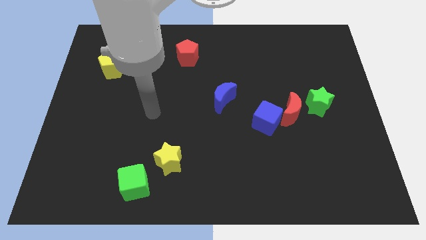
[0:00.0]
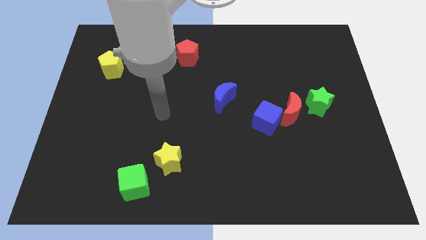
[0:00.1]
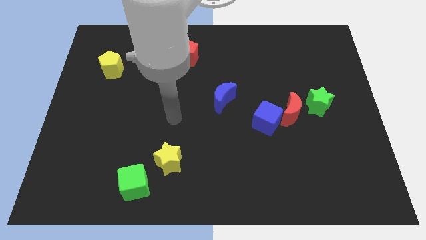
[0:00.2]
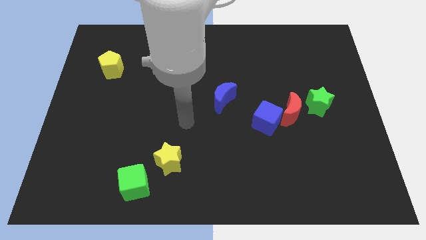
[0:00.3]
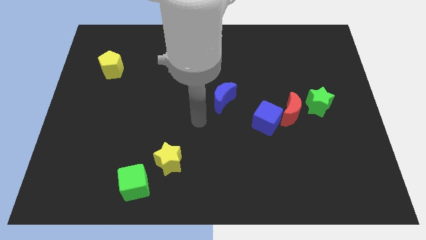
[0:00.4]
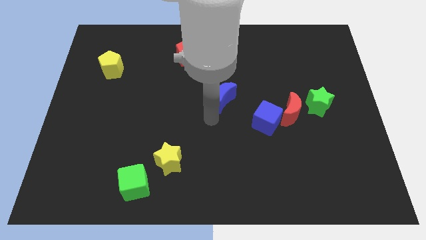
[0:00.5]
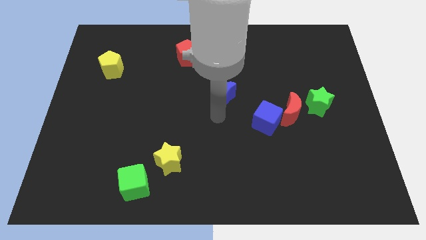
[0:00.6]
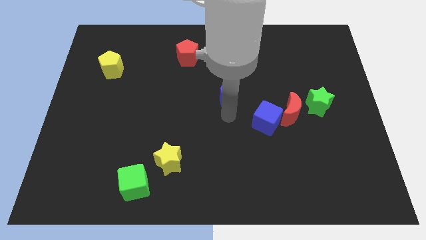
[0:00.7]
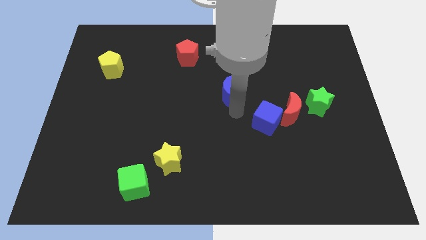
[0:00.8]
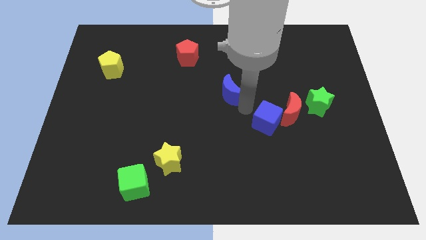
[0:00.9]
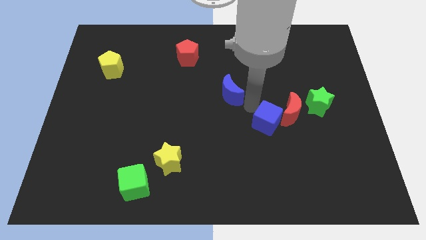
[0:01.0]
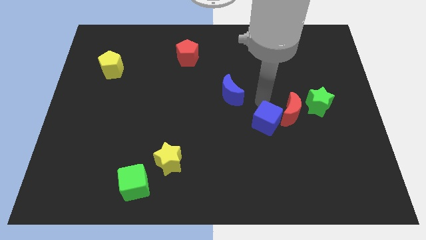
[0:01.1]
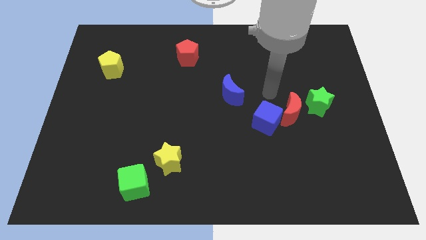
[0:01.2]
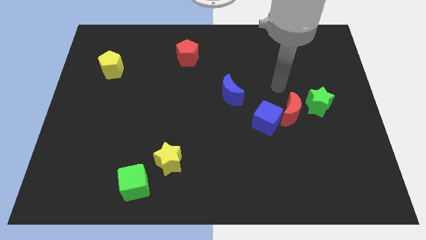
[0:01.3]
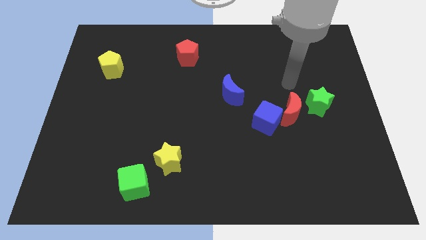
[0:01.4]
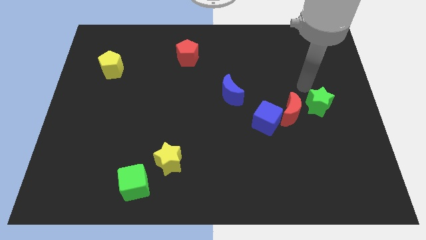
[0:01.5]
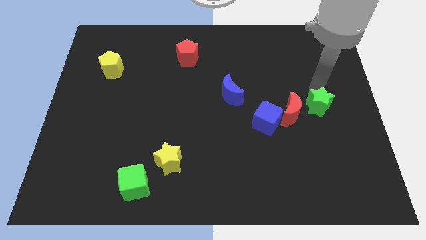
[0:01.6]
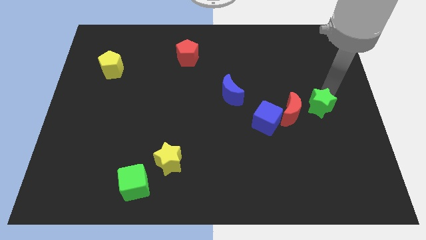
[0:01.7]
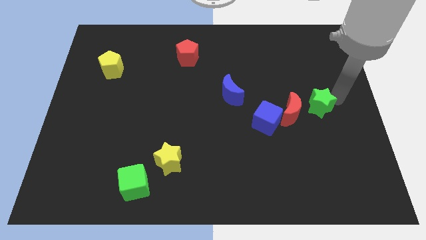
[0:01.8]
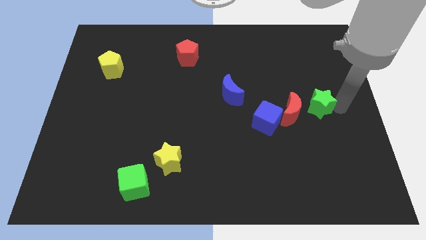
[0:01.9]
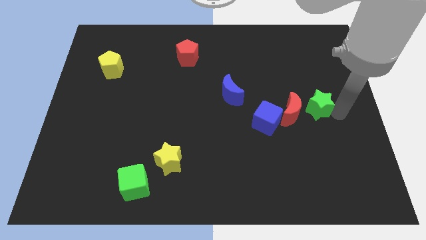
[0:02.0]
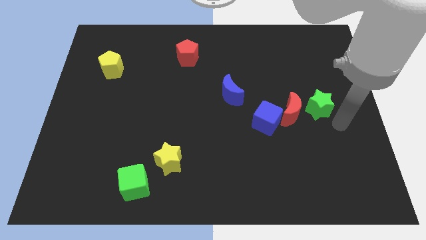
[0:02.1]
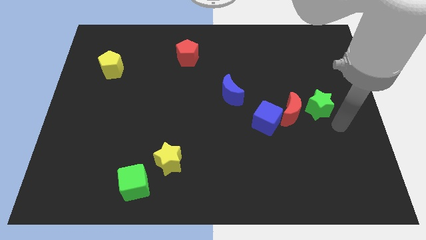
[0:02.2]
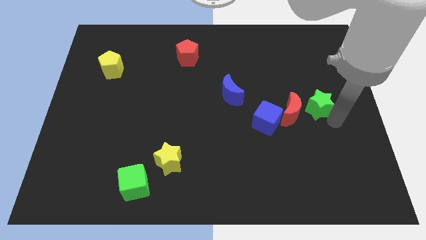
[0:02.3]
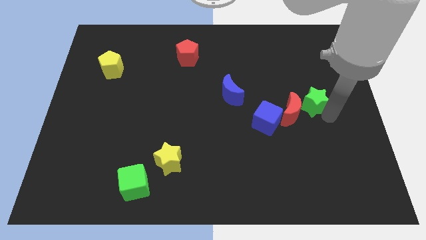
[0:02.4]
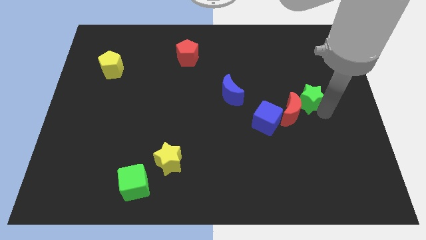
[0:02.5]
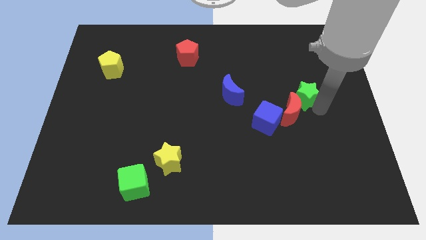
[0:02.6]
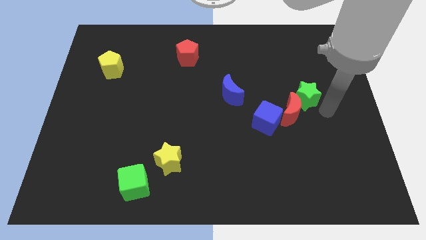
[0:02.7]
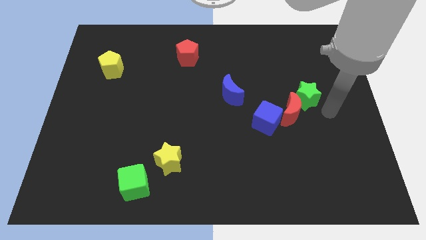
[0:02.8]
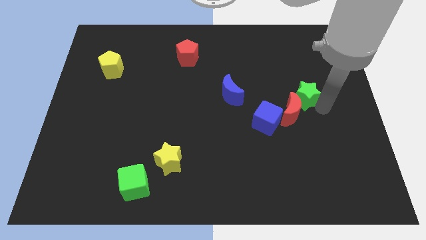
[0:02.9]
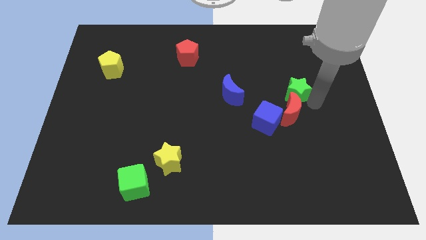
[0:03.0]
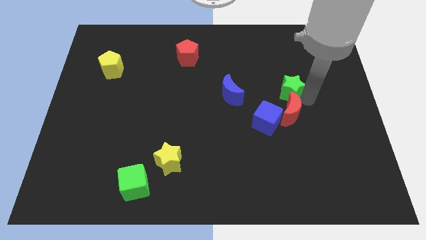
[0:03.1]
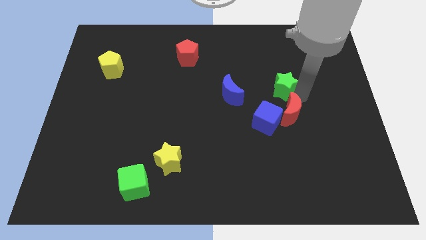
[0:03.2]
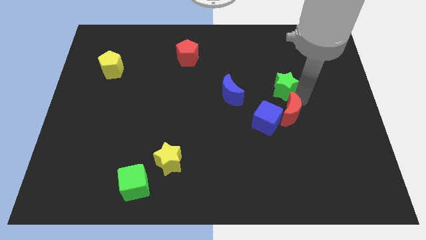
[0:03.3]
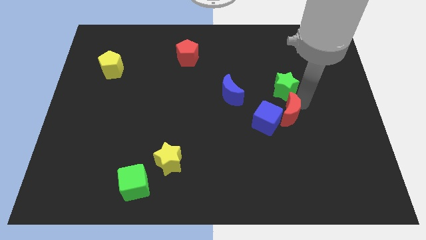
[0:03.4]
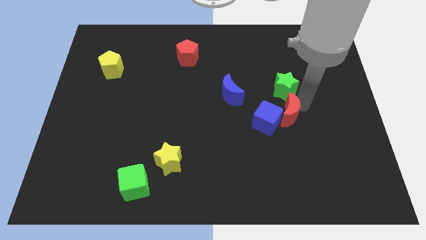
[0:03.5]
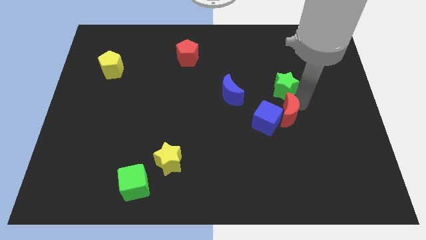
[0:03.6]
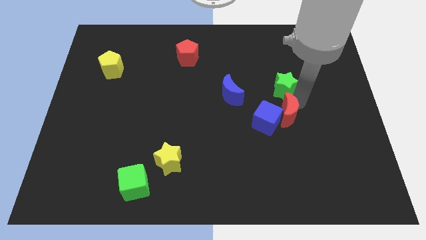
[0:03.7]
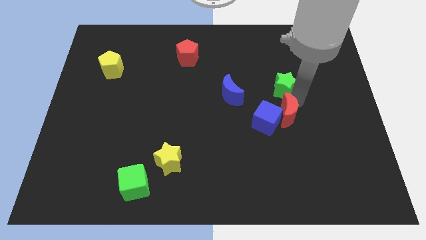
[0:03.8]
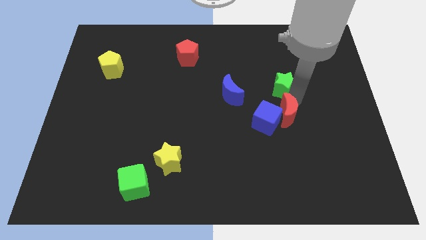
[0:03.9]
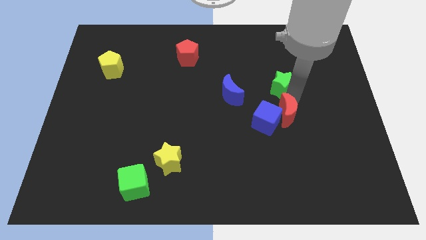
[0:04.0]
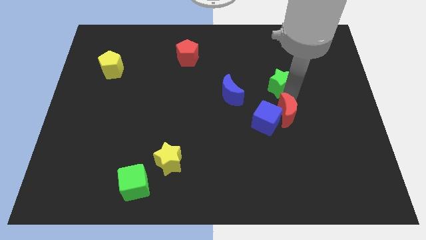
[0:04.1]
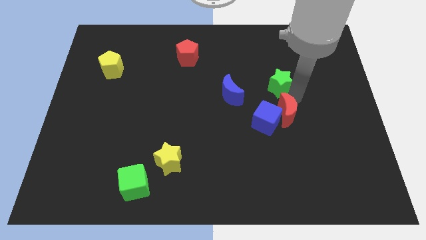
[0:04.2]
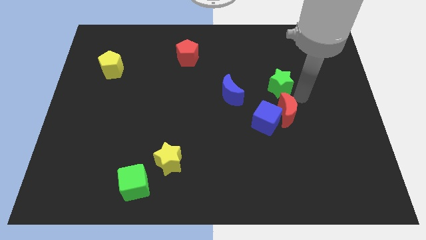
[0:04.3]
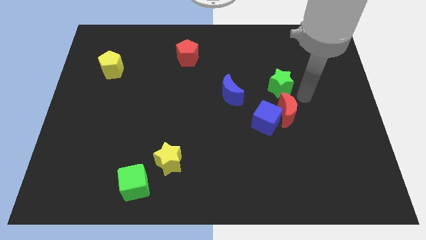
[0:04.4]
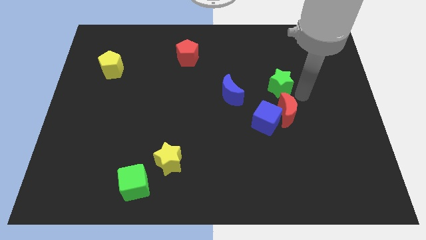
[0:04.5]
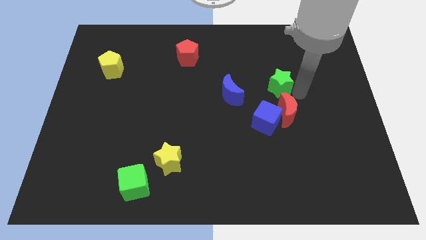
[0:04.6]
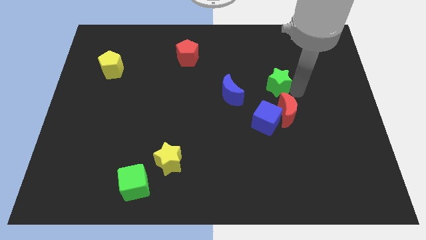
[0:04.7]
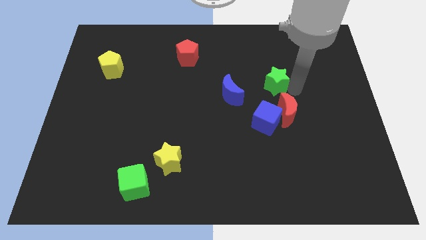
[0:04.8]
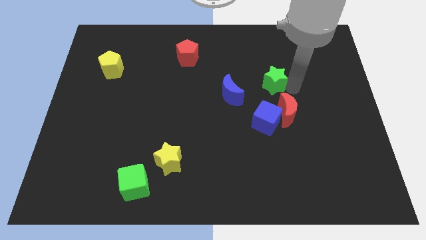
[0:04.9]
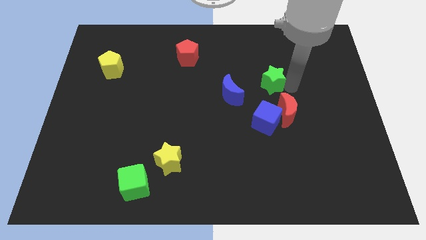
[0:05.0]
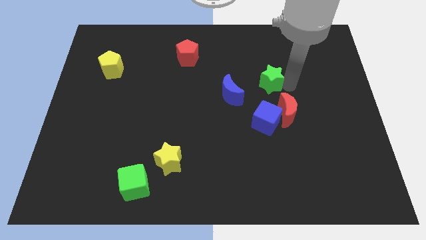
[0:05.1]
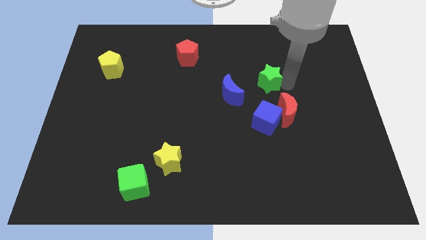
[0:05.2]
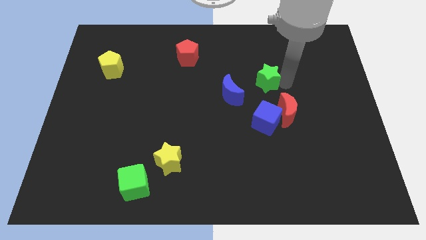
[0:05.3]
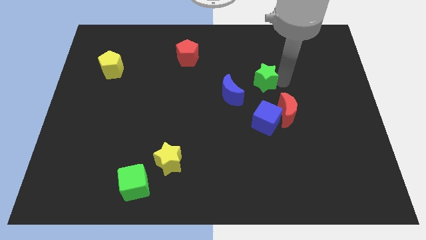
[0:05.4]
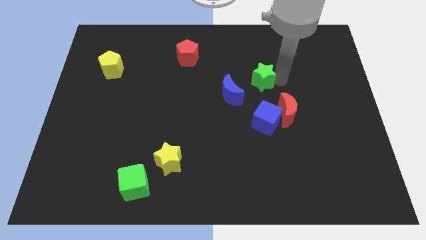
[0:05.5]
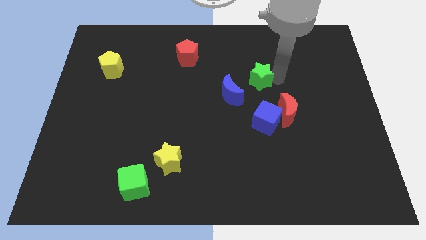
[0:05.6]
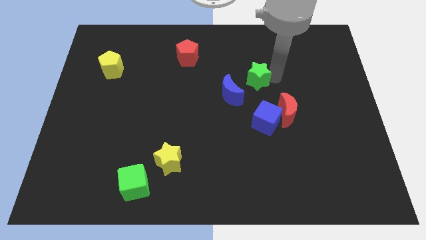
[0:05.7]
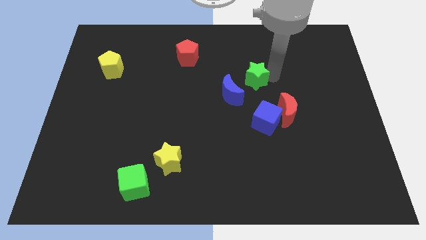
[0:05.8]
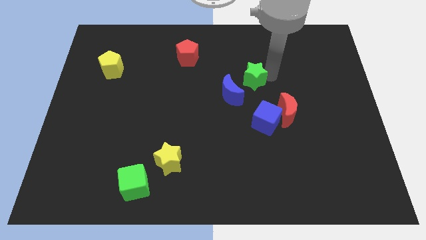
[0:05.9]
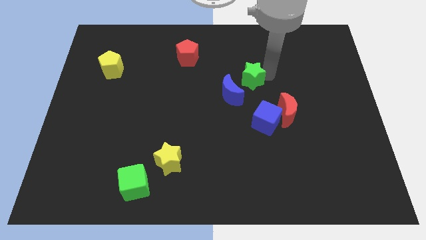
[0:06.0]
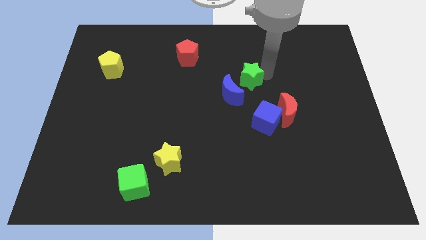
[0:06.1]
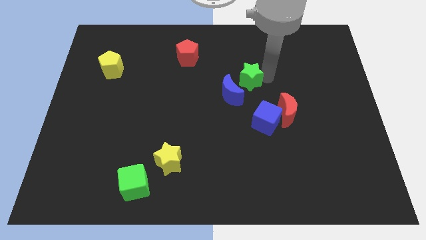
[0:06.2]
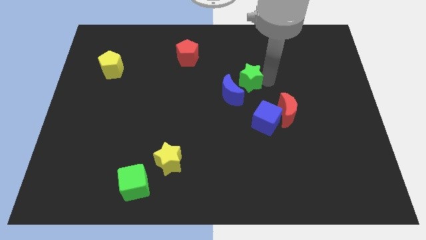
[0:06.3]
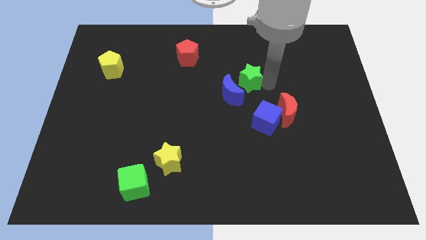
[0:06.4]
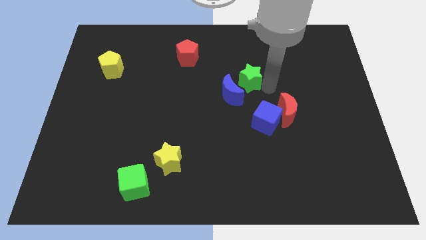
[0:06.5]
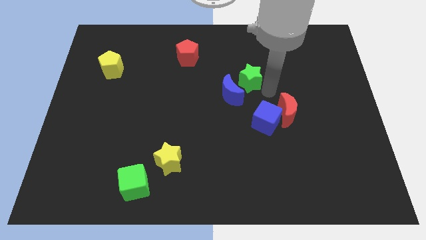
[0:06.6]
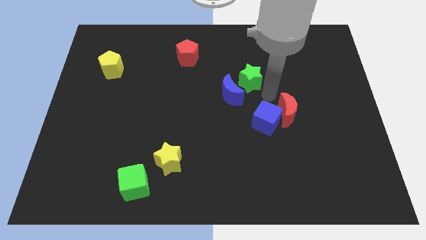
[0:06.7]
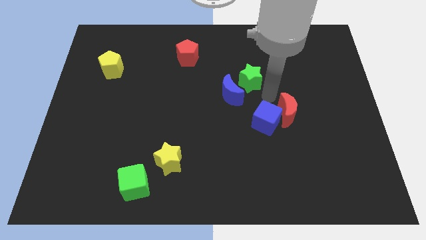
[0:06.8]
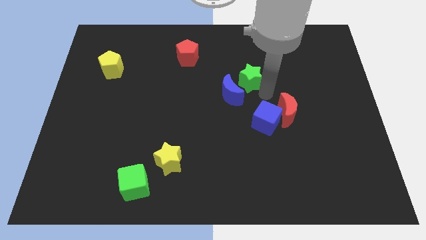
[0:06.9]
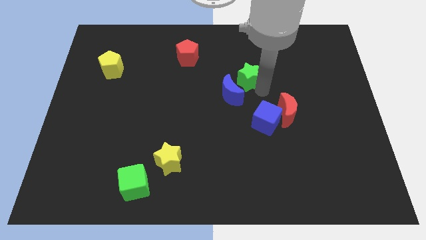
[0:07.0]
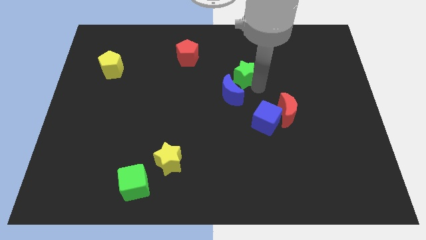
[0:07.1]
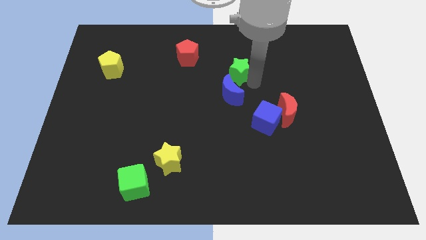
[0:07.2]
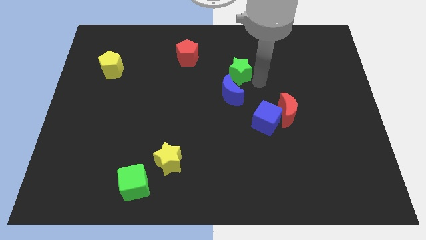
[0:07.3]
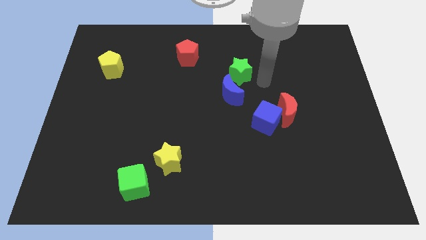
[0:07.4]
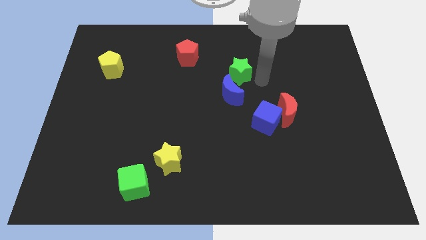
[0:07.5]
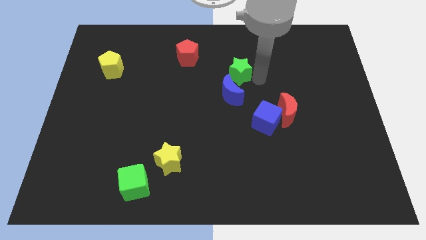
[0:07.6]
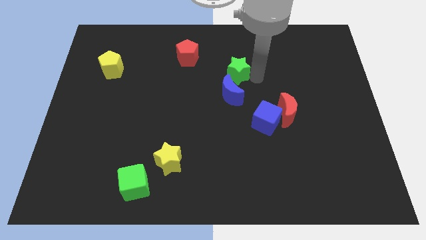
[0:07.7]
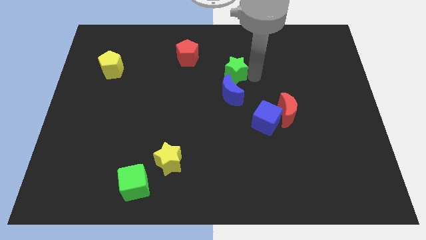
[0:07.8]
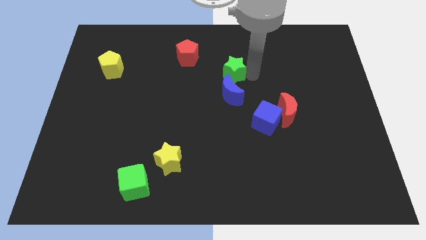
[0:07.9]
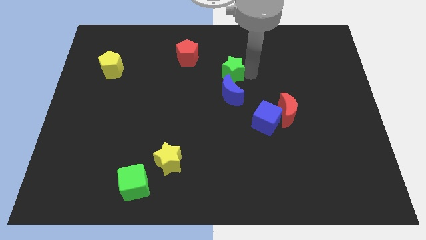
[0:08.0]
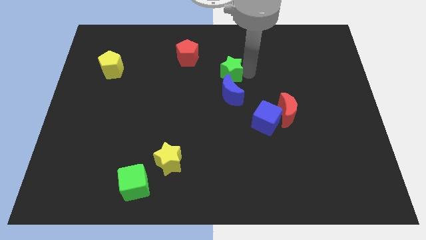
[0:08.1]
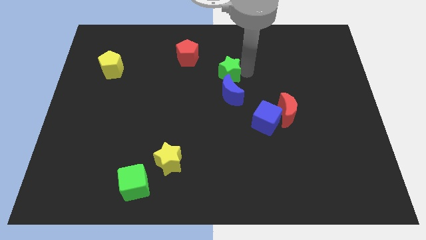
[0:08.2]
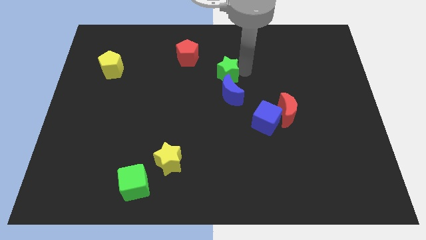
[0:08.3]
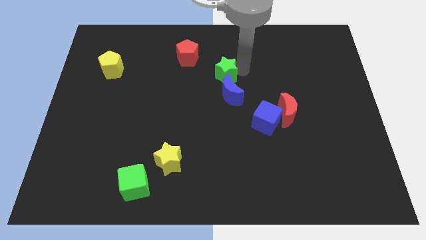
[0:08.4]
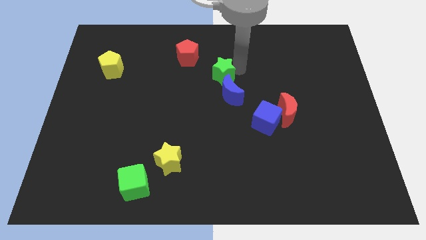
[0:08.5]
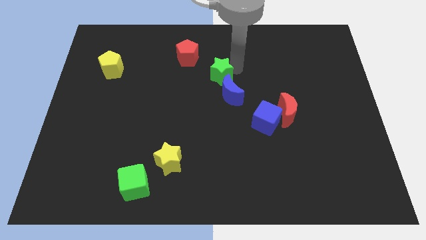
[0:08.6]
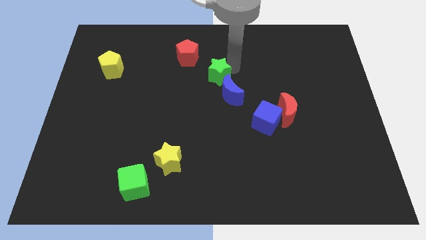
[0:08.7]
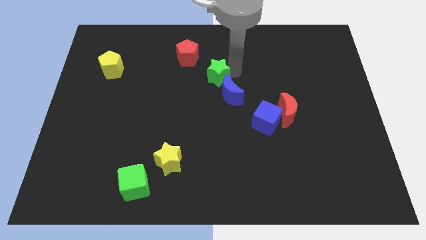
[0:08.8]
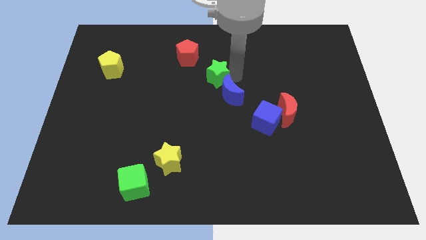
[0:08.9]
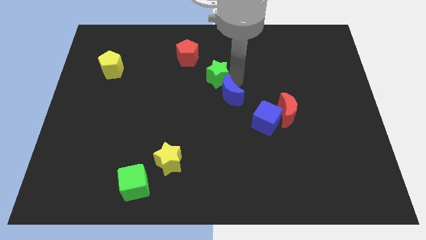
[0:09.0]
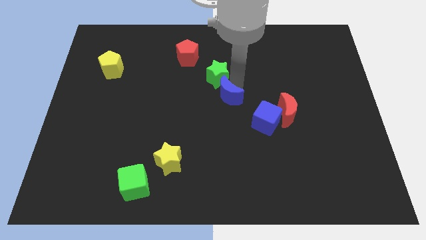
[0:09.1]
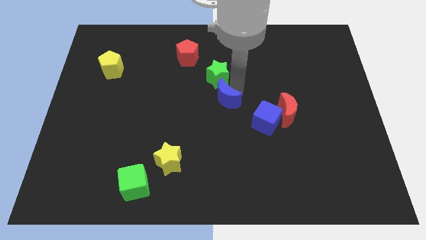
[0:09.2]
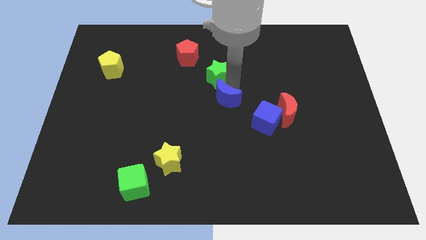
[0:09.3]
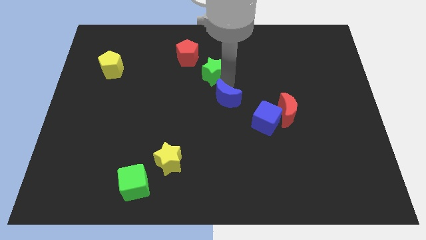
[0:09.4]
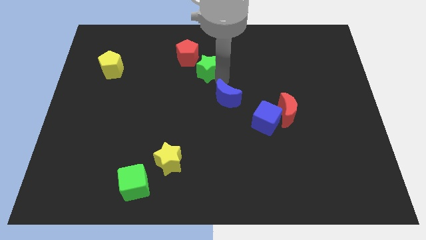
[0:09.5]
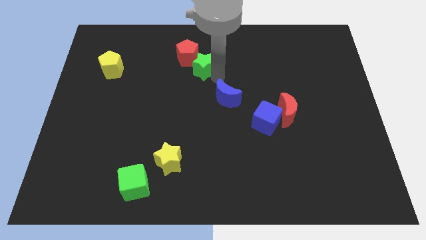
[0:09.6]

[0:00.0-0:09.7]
slide the green star to the red pentagon
